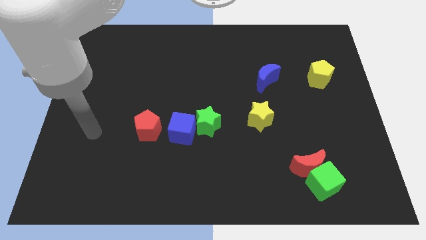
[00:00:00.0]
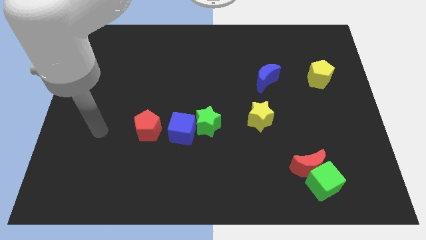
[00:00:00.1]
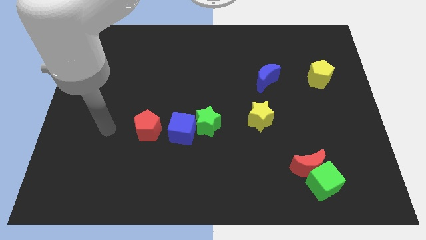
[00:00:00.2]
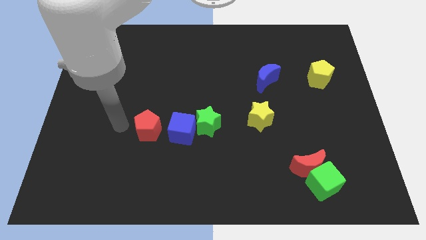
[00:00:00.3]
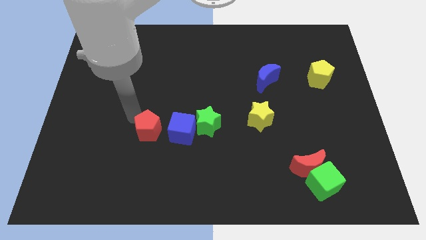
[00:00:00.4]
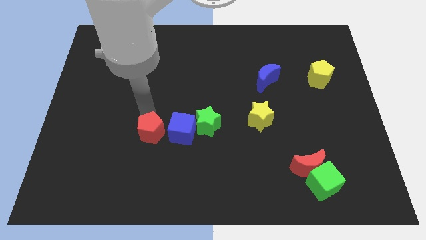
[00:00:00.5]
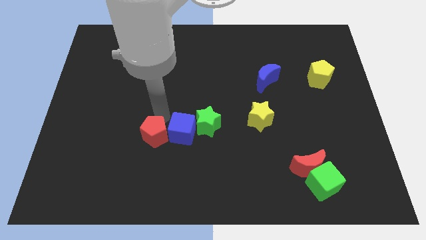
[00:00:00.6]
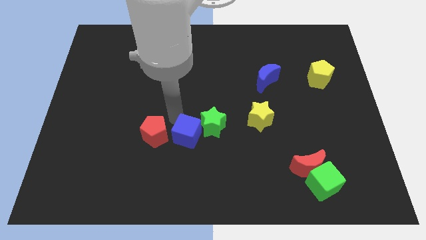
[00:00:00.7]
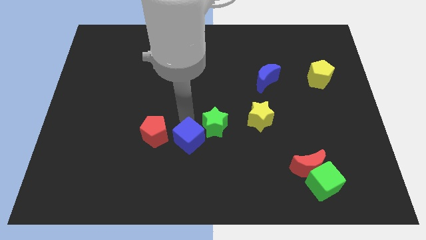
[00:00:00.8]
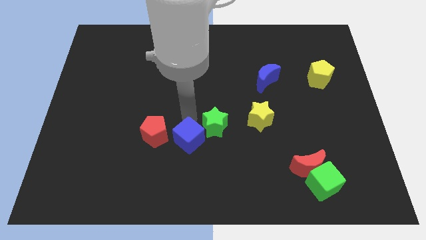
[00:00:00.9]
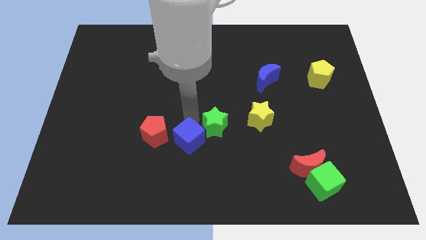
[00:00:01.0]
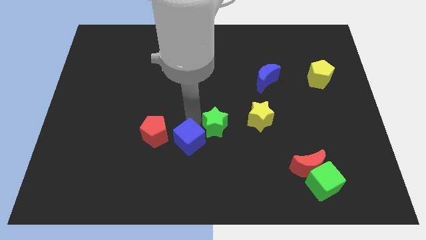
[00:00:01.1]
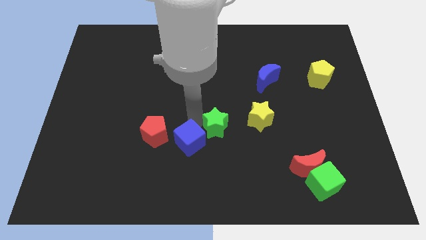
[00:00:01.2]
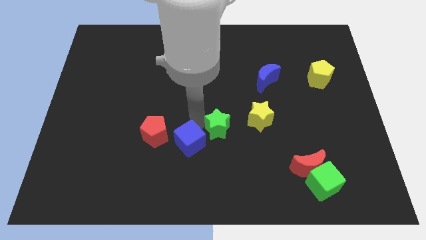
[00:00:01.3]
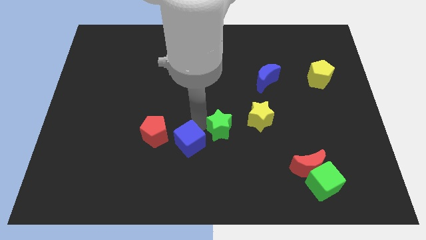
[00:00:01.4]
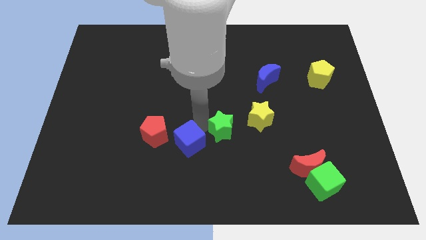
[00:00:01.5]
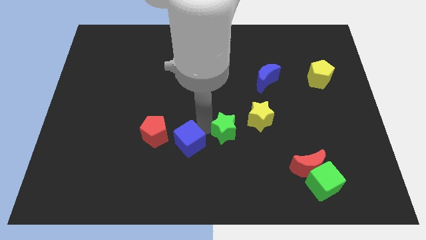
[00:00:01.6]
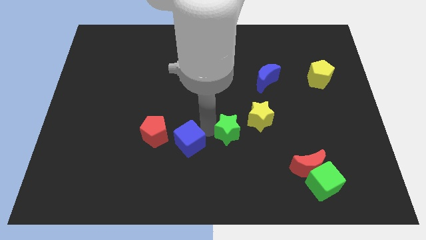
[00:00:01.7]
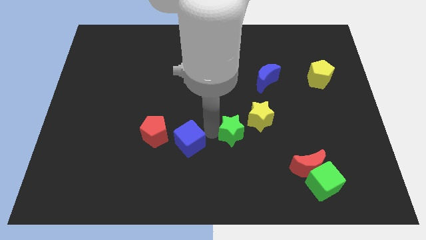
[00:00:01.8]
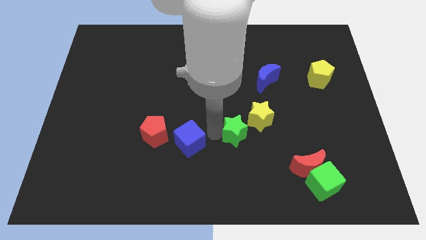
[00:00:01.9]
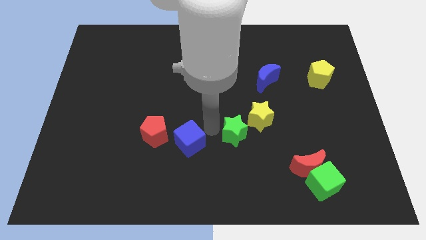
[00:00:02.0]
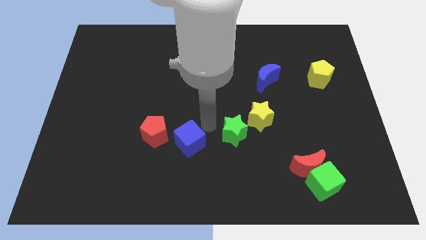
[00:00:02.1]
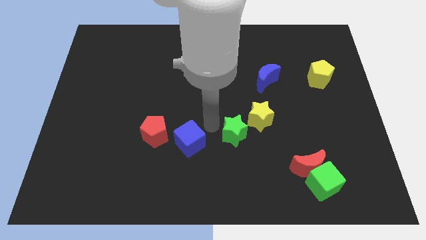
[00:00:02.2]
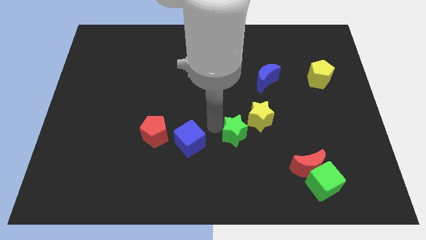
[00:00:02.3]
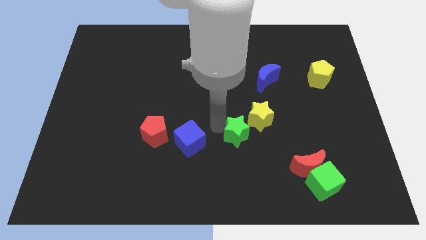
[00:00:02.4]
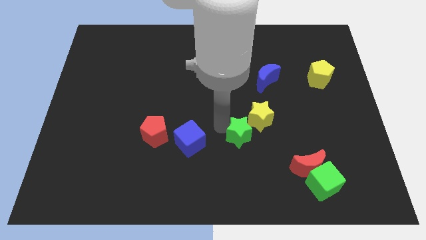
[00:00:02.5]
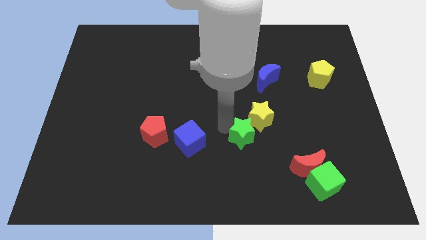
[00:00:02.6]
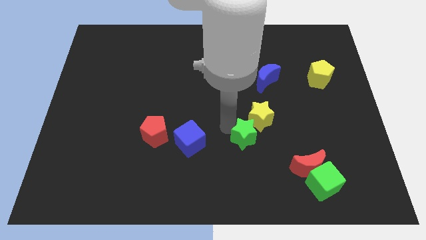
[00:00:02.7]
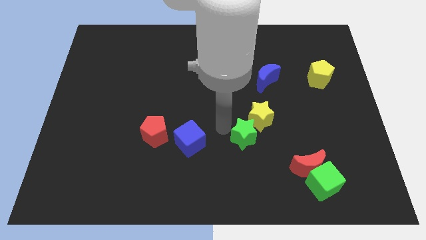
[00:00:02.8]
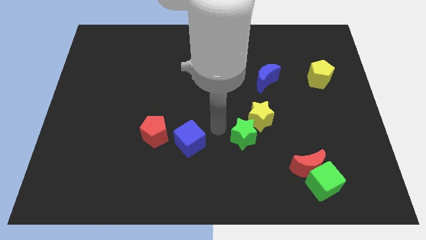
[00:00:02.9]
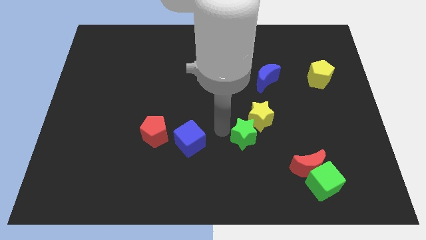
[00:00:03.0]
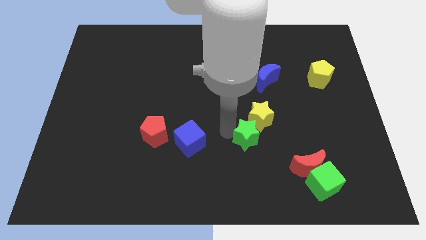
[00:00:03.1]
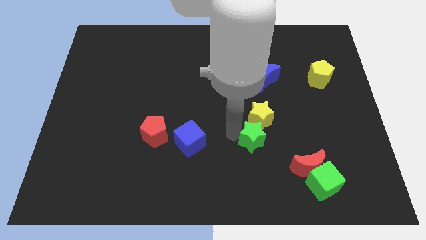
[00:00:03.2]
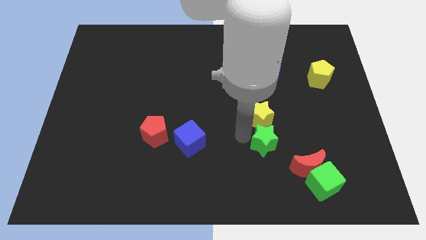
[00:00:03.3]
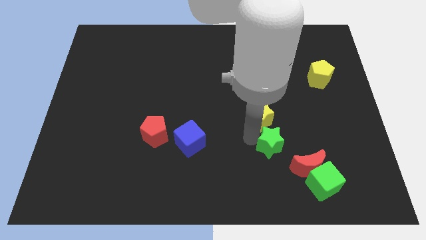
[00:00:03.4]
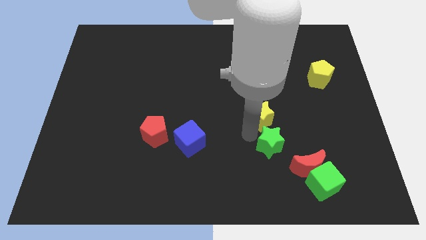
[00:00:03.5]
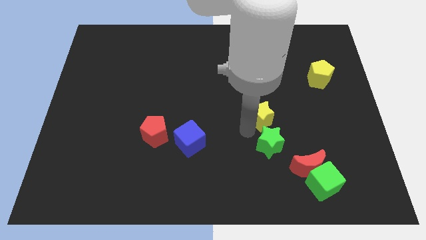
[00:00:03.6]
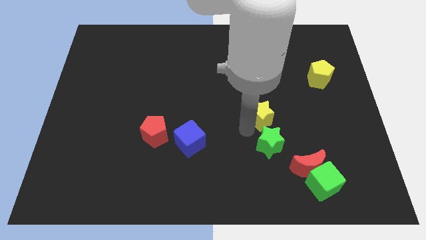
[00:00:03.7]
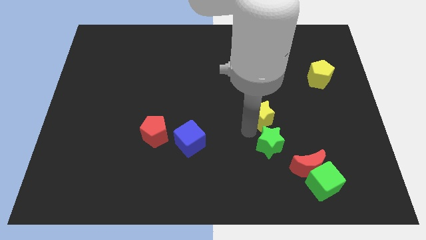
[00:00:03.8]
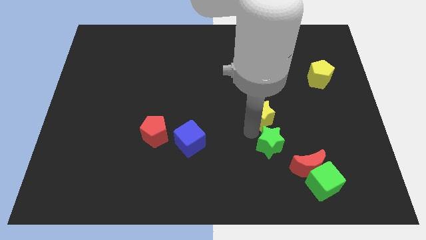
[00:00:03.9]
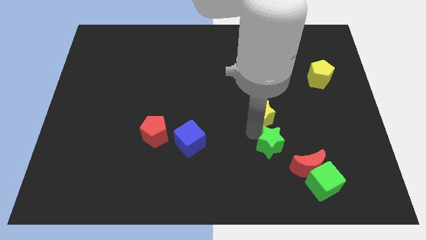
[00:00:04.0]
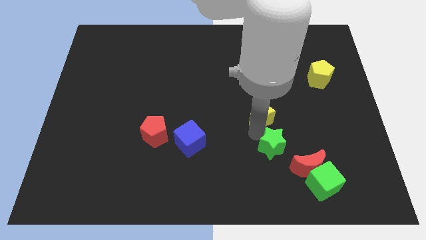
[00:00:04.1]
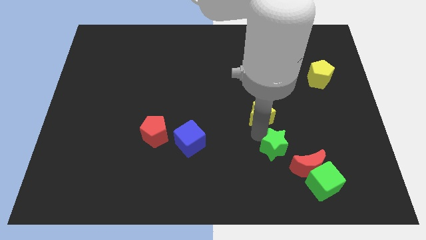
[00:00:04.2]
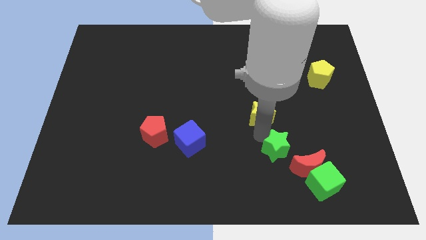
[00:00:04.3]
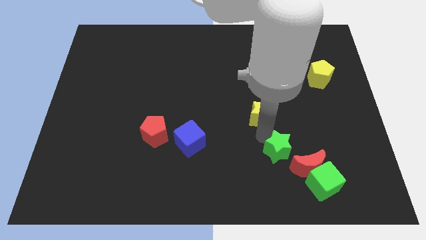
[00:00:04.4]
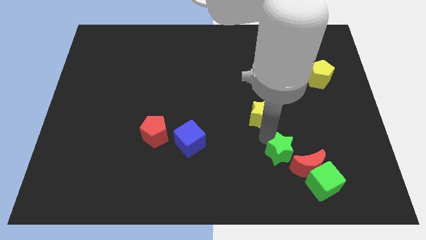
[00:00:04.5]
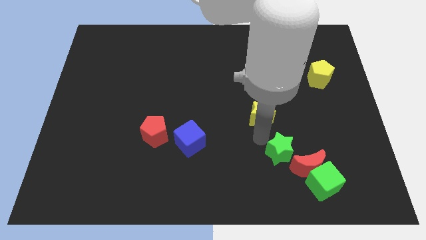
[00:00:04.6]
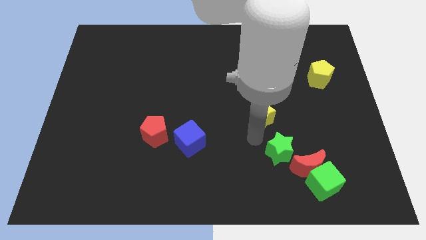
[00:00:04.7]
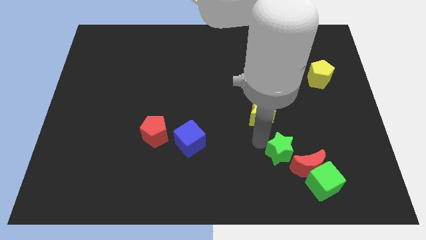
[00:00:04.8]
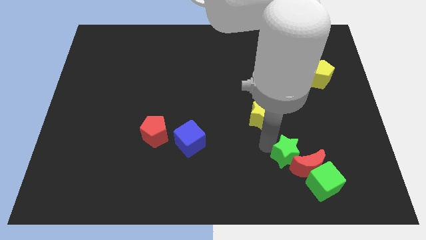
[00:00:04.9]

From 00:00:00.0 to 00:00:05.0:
put the green star to the red moon

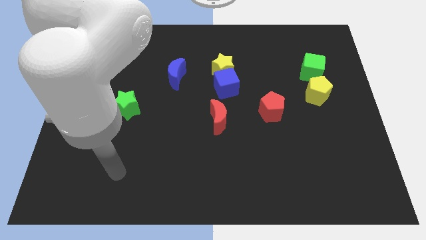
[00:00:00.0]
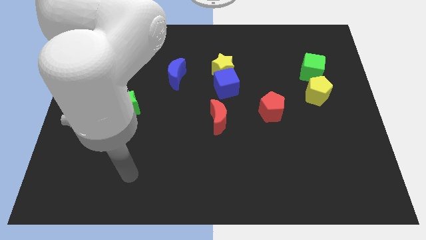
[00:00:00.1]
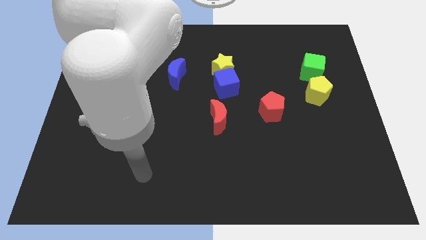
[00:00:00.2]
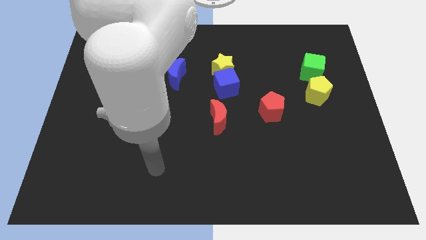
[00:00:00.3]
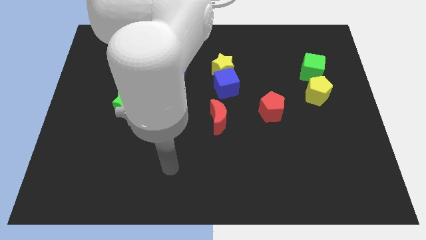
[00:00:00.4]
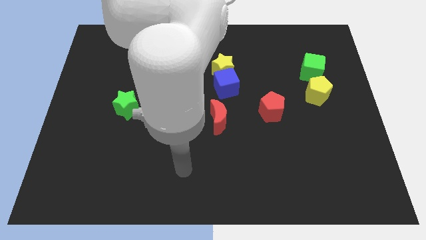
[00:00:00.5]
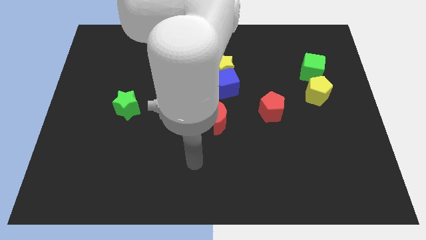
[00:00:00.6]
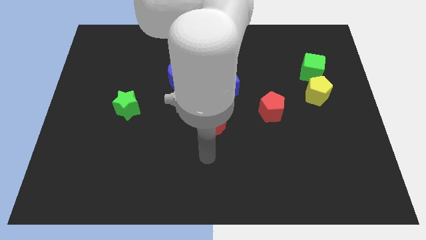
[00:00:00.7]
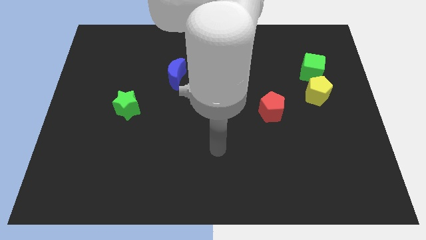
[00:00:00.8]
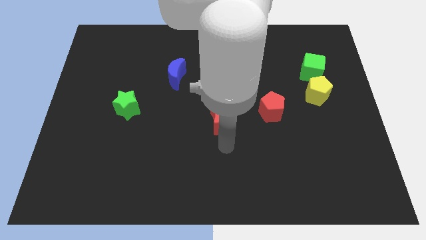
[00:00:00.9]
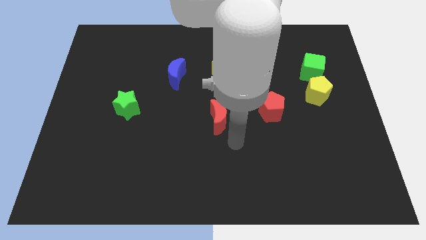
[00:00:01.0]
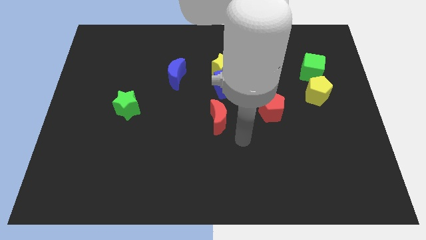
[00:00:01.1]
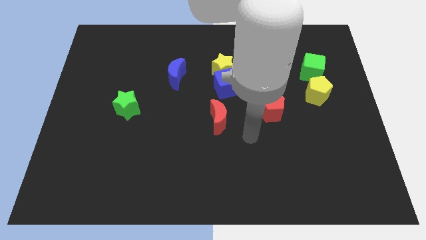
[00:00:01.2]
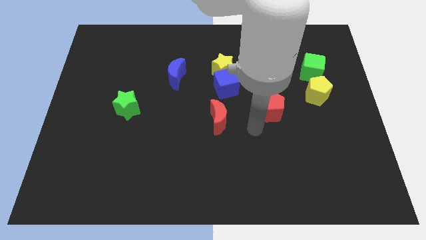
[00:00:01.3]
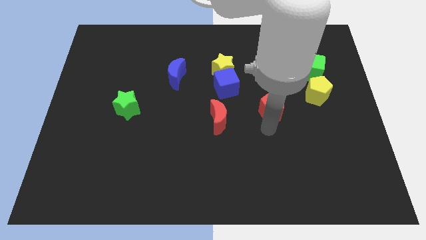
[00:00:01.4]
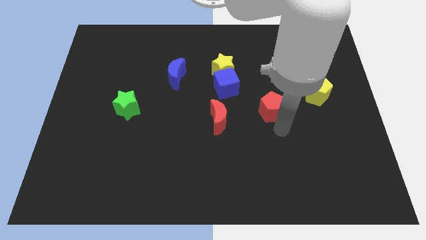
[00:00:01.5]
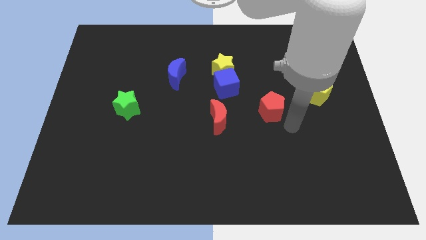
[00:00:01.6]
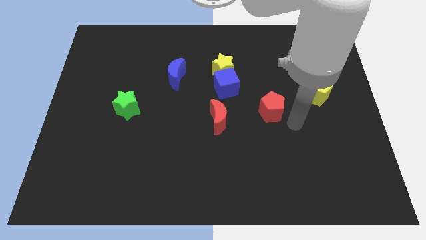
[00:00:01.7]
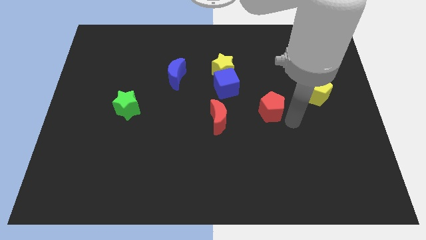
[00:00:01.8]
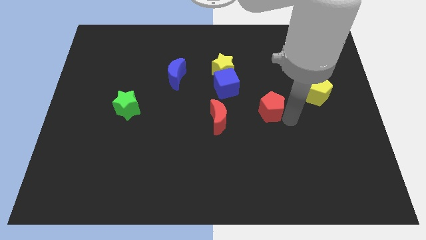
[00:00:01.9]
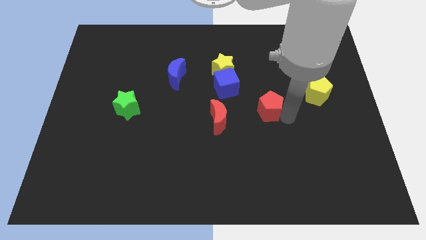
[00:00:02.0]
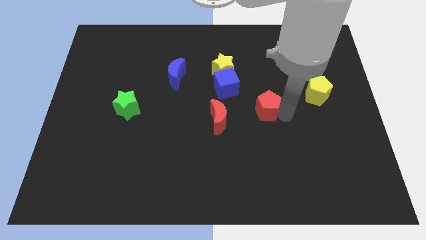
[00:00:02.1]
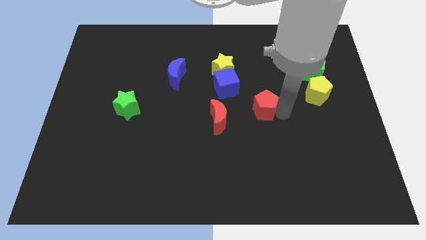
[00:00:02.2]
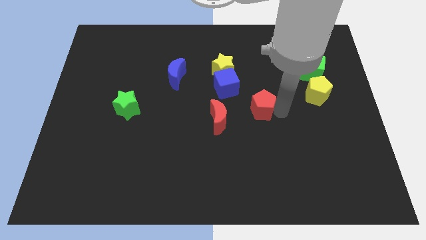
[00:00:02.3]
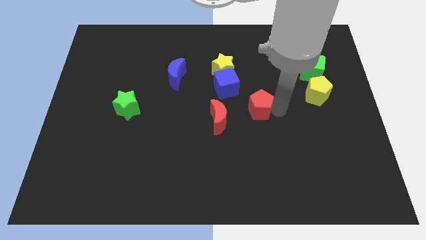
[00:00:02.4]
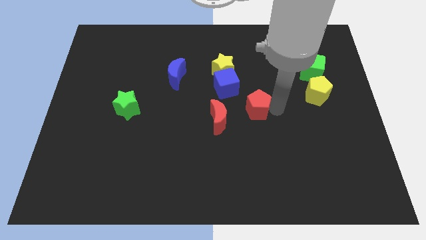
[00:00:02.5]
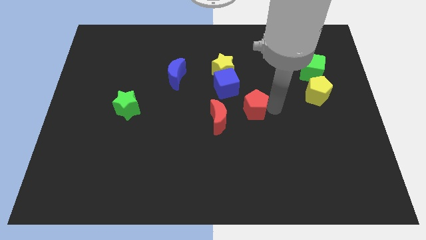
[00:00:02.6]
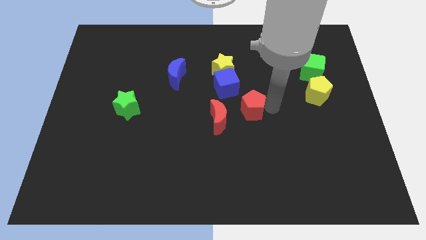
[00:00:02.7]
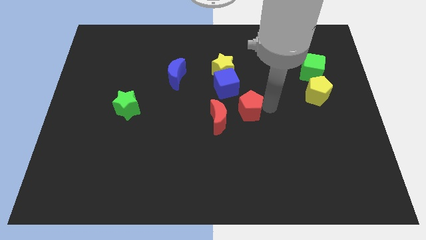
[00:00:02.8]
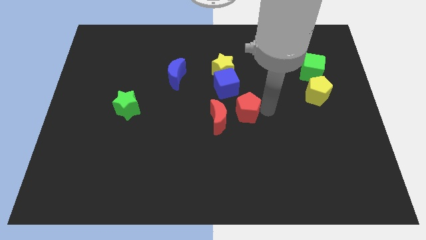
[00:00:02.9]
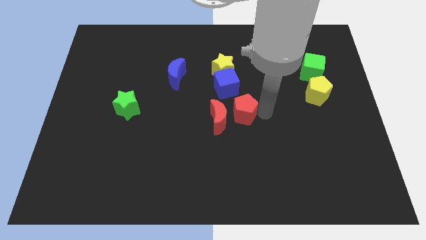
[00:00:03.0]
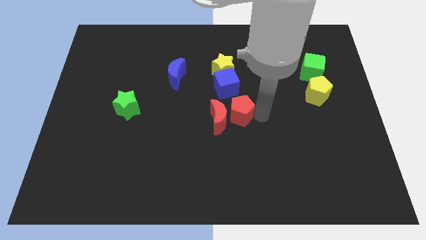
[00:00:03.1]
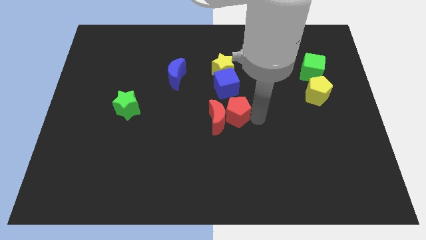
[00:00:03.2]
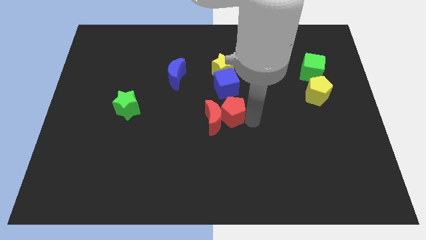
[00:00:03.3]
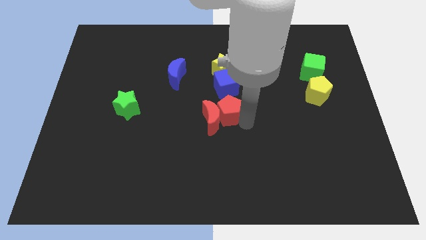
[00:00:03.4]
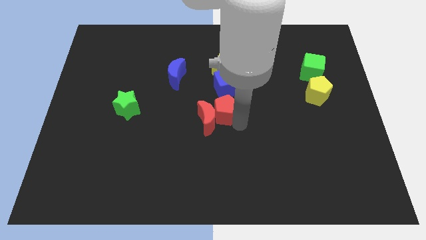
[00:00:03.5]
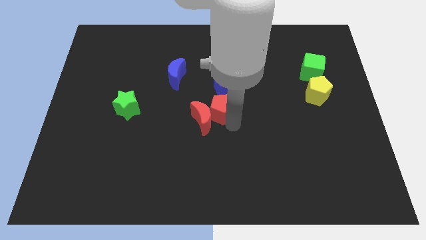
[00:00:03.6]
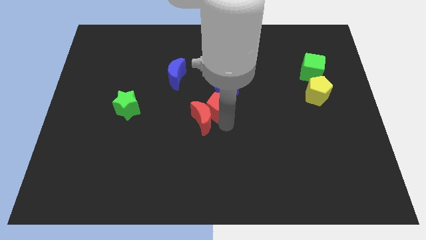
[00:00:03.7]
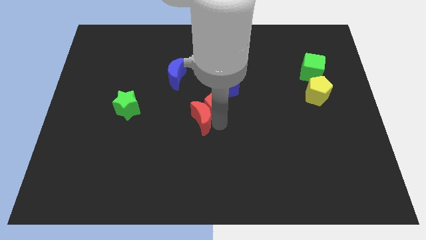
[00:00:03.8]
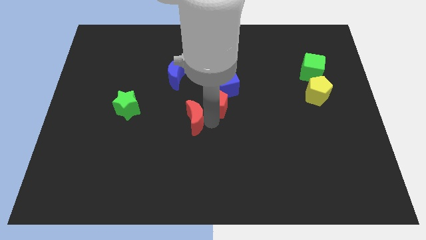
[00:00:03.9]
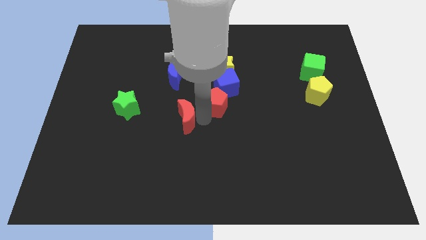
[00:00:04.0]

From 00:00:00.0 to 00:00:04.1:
push the red pentagon close to the blue cube
